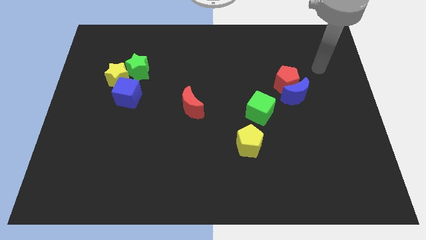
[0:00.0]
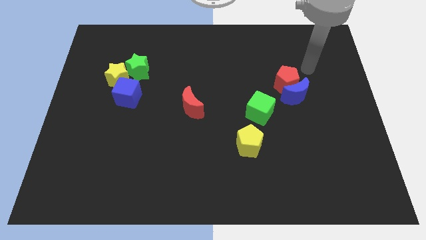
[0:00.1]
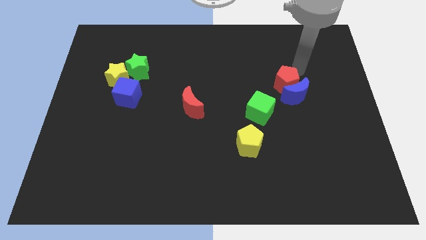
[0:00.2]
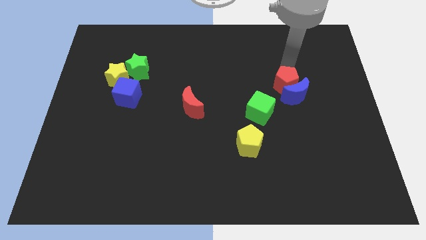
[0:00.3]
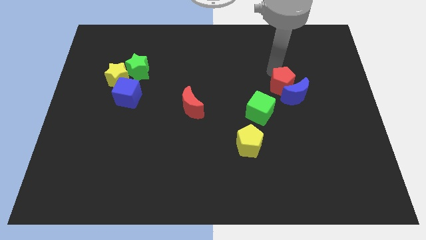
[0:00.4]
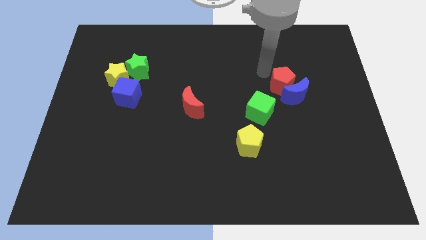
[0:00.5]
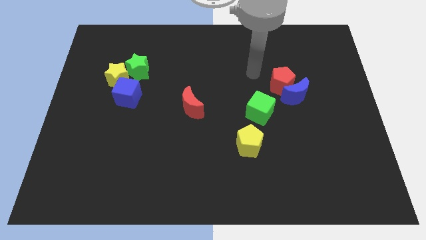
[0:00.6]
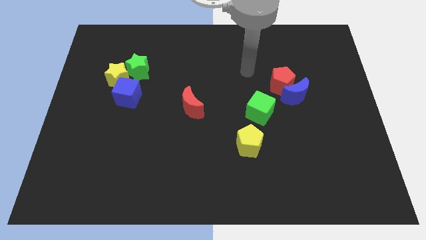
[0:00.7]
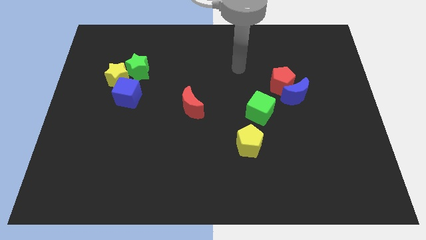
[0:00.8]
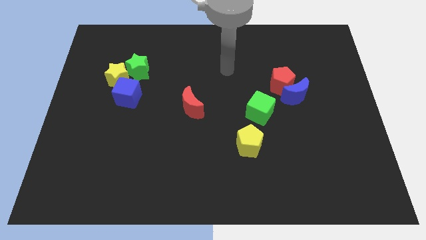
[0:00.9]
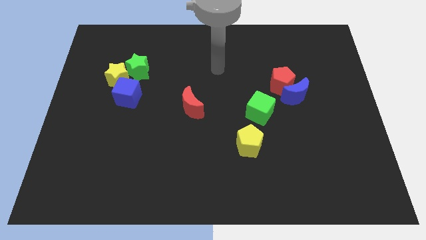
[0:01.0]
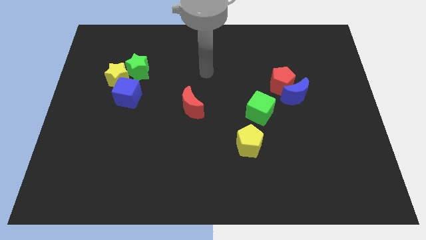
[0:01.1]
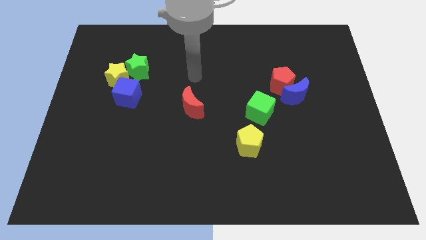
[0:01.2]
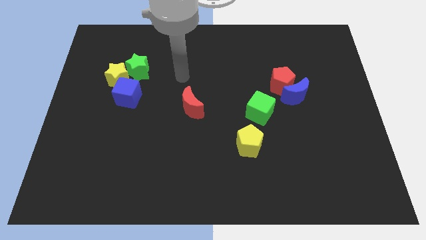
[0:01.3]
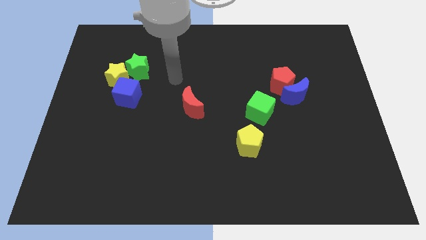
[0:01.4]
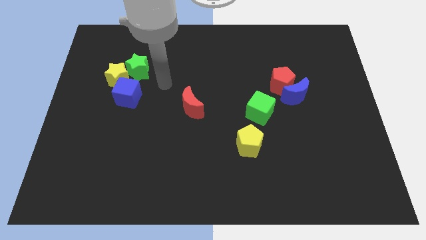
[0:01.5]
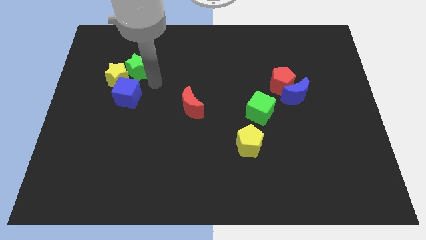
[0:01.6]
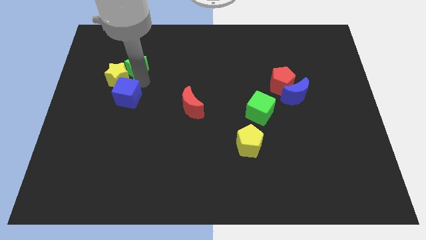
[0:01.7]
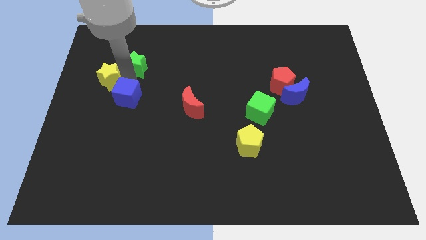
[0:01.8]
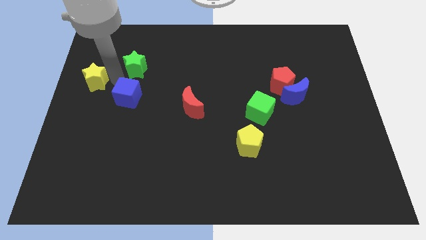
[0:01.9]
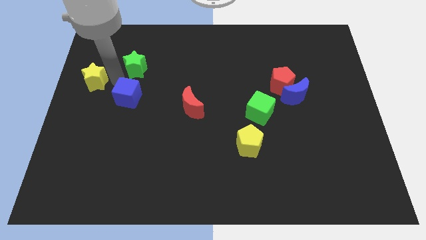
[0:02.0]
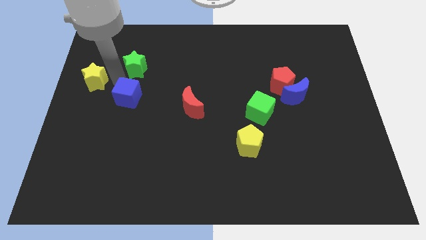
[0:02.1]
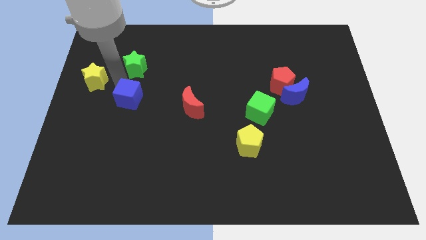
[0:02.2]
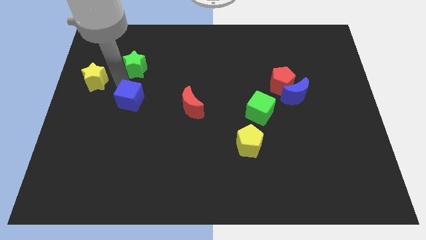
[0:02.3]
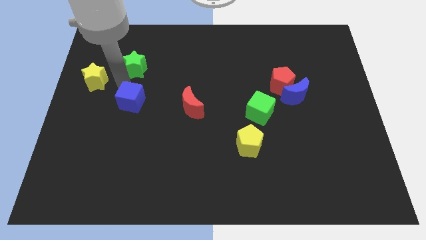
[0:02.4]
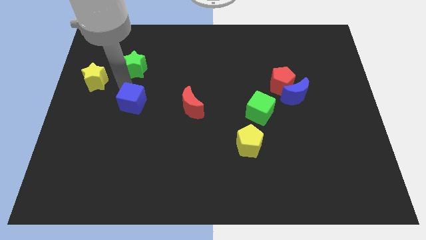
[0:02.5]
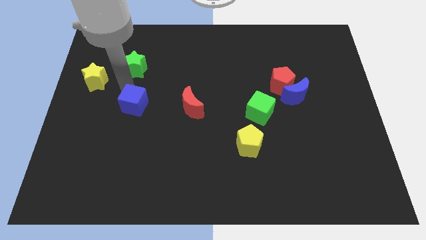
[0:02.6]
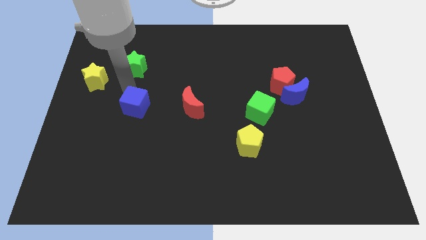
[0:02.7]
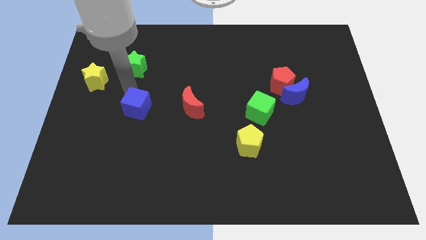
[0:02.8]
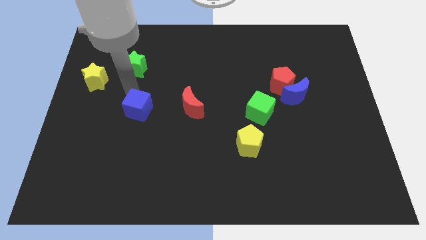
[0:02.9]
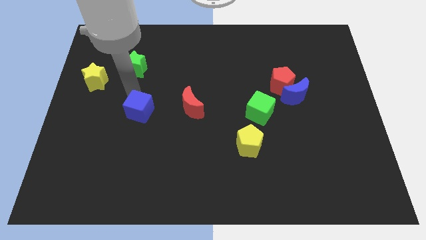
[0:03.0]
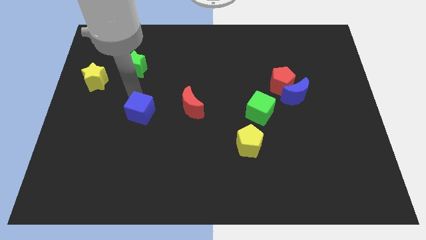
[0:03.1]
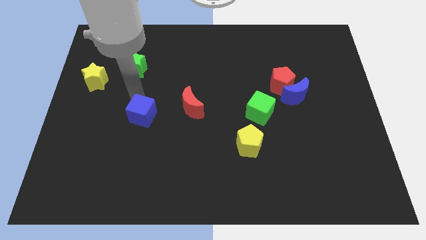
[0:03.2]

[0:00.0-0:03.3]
slide the blue cube slightly downwards and right

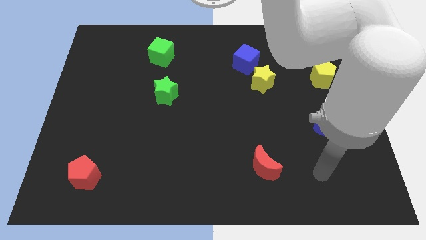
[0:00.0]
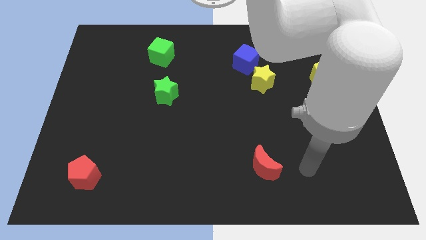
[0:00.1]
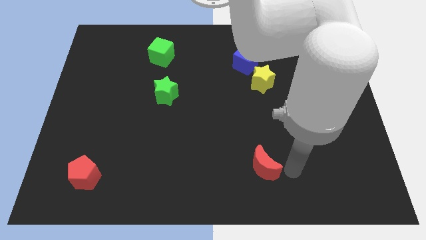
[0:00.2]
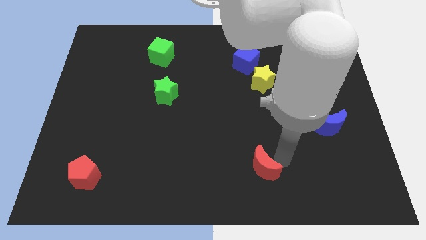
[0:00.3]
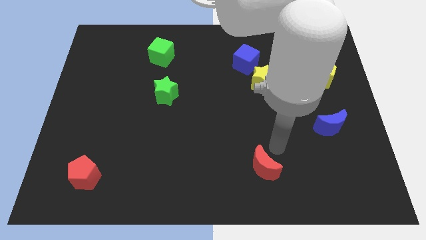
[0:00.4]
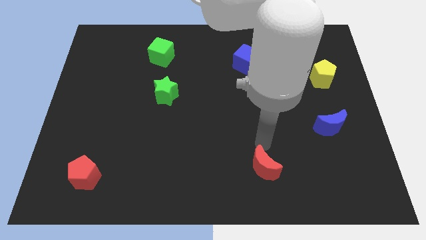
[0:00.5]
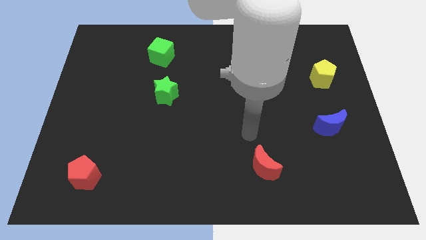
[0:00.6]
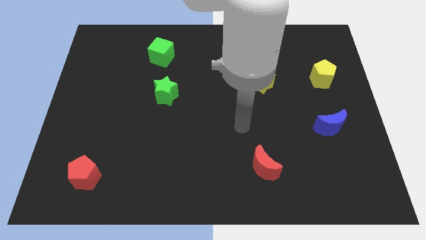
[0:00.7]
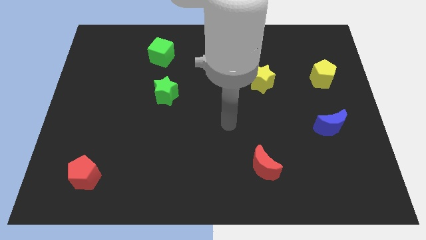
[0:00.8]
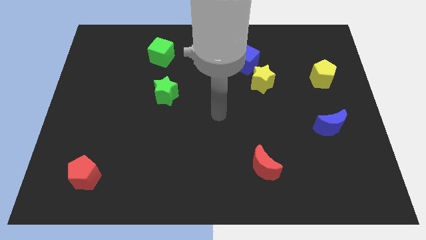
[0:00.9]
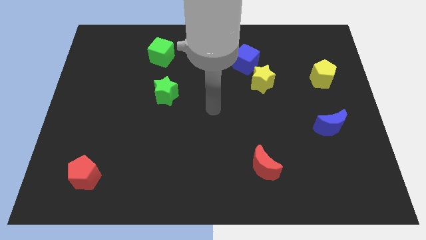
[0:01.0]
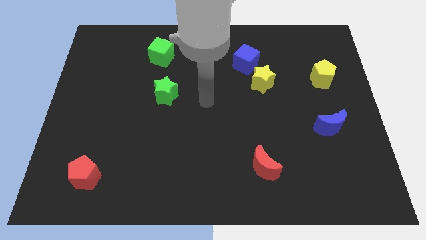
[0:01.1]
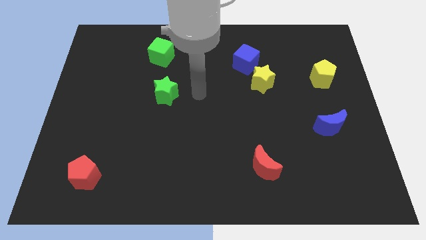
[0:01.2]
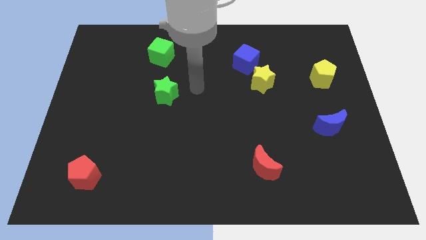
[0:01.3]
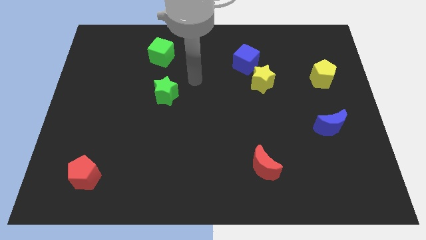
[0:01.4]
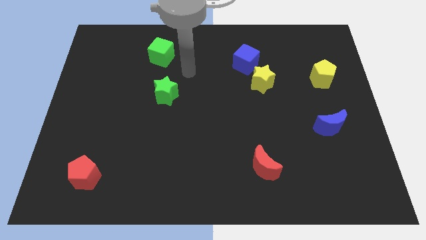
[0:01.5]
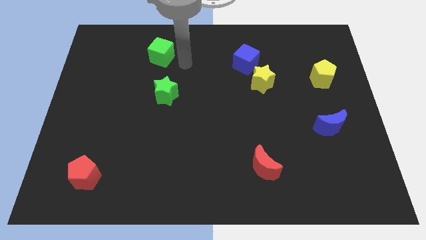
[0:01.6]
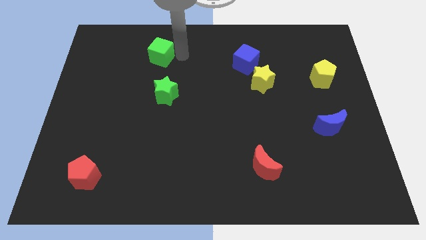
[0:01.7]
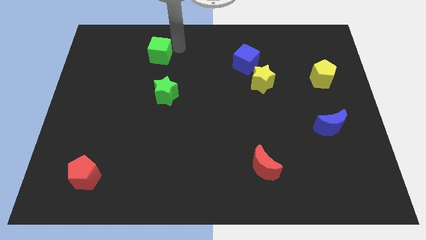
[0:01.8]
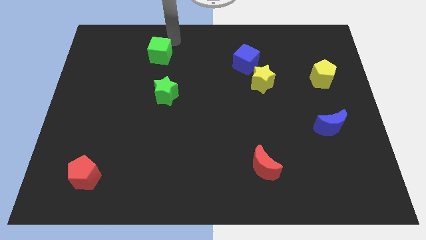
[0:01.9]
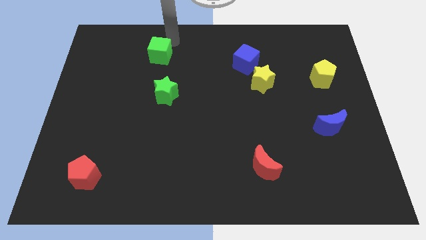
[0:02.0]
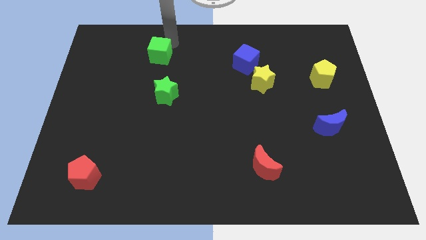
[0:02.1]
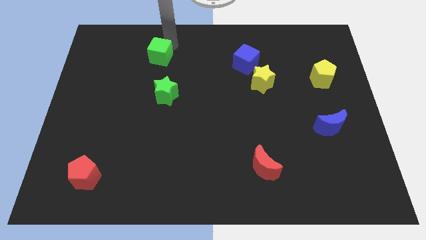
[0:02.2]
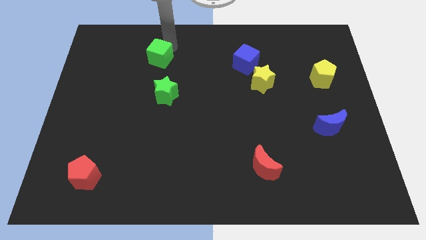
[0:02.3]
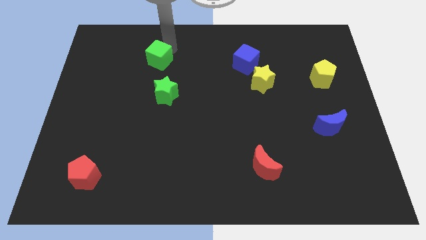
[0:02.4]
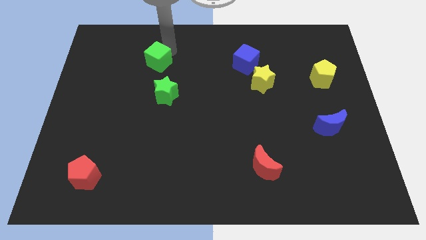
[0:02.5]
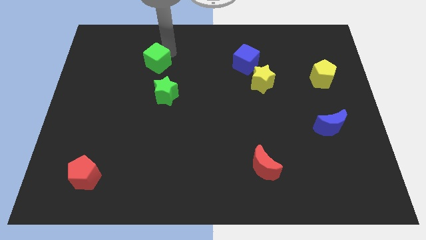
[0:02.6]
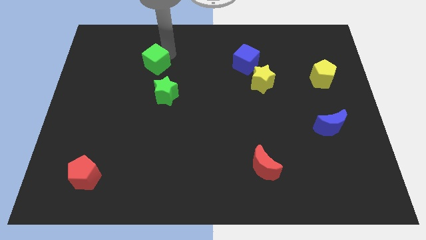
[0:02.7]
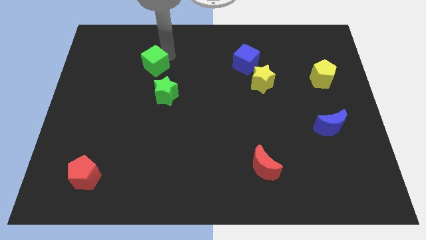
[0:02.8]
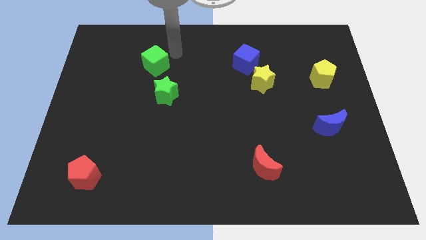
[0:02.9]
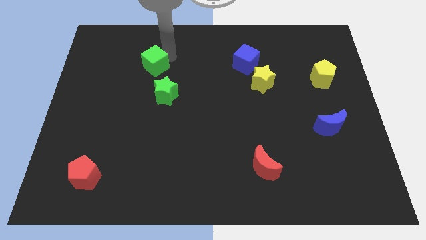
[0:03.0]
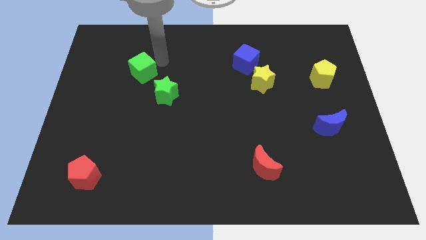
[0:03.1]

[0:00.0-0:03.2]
move the green cube down and to the left a little bit

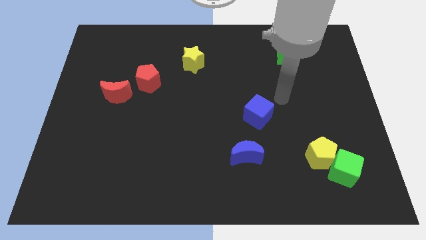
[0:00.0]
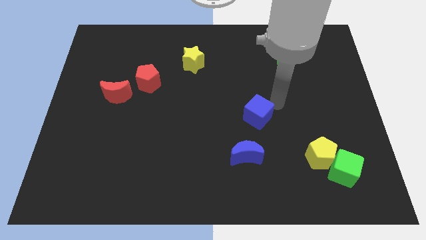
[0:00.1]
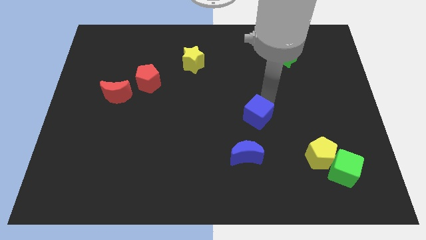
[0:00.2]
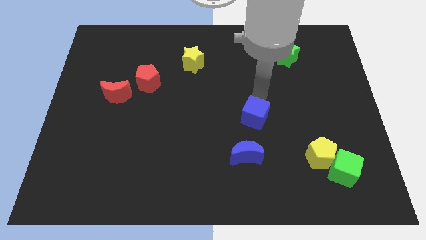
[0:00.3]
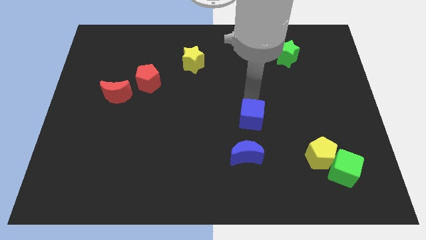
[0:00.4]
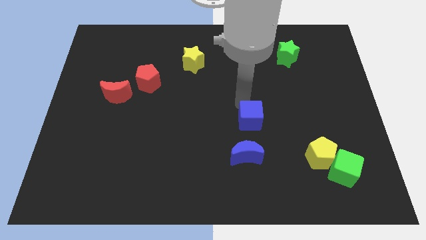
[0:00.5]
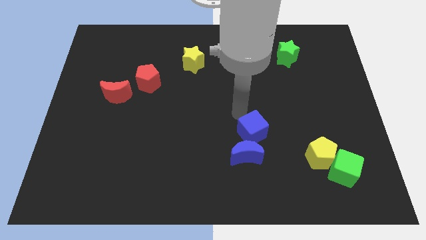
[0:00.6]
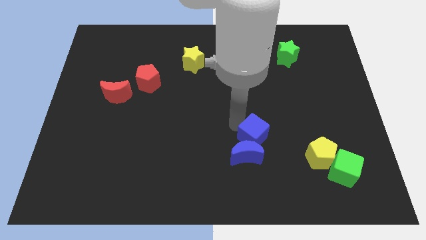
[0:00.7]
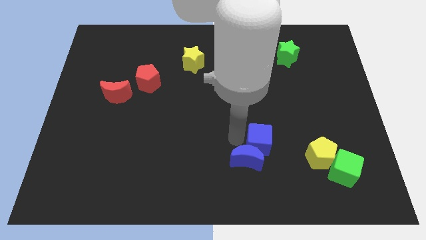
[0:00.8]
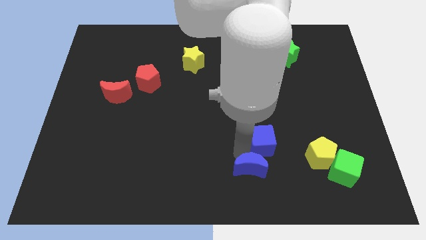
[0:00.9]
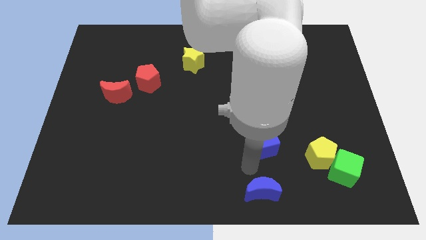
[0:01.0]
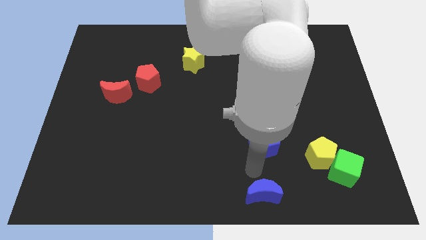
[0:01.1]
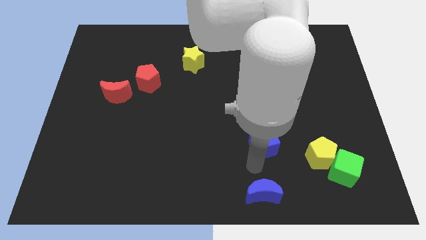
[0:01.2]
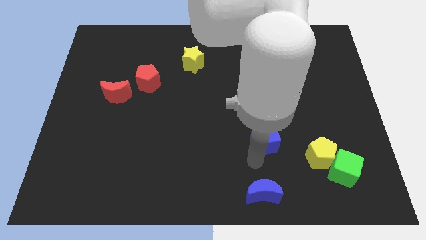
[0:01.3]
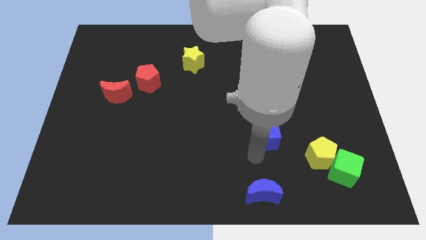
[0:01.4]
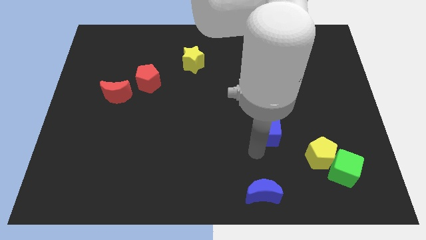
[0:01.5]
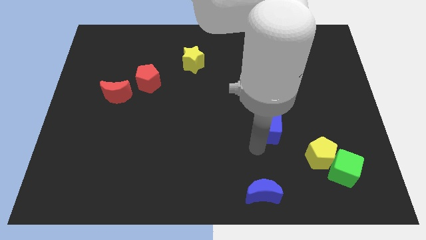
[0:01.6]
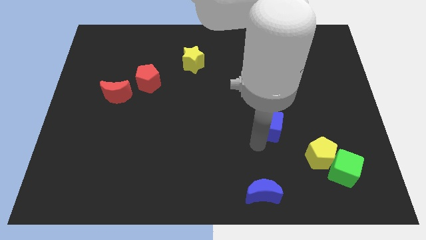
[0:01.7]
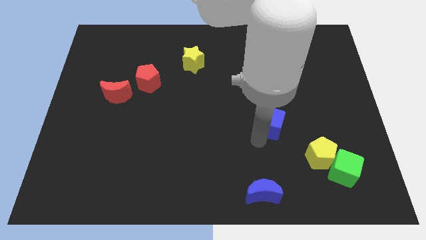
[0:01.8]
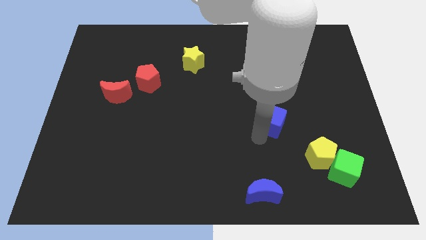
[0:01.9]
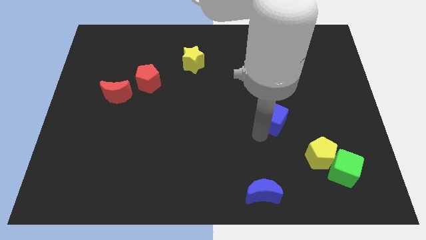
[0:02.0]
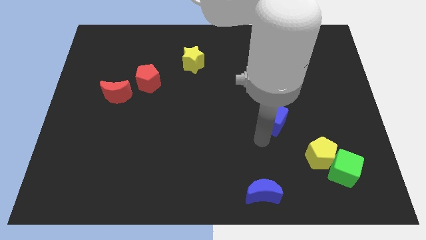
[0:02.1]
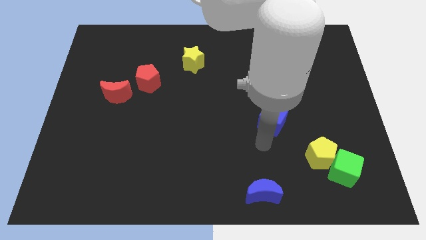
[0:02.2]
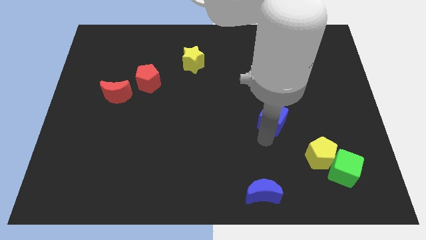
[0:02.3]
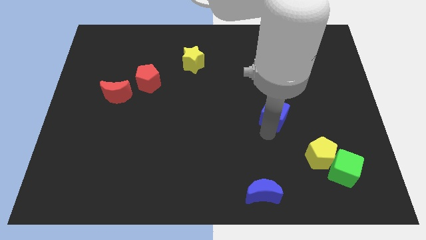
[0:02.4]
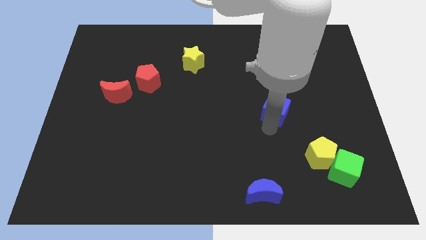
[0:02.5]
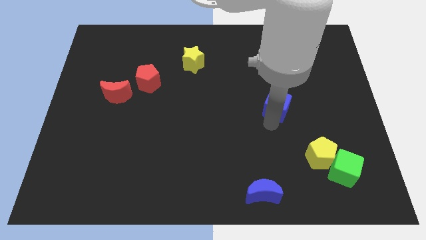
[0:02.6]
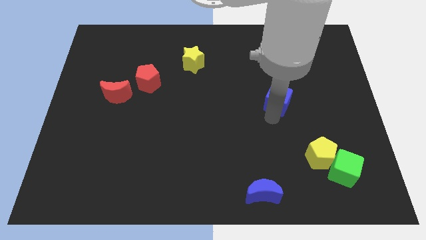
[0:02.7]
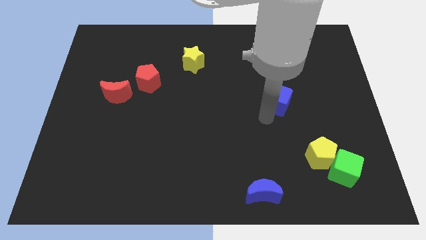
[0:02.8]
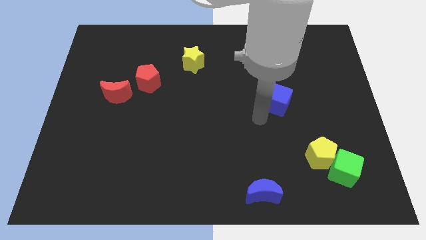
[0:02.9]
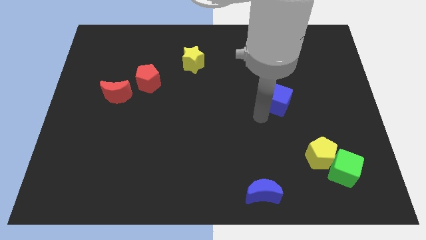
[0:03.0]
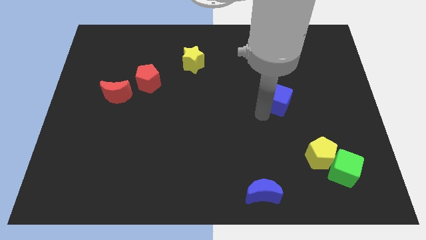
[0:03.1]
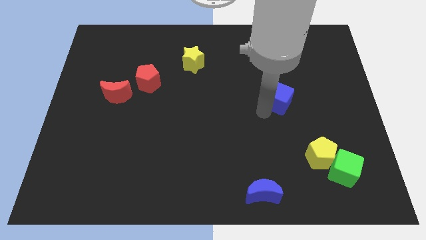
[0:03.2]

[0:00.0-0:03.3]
move the blue cube upwards and right diagonally a little
